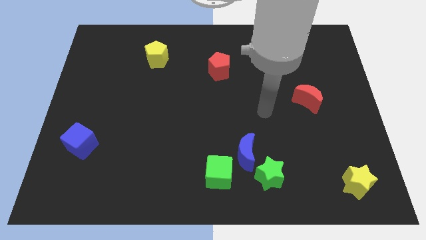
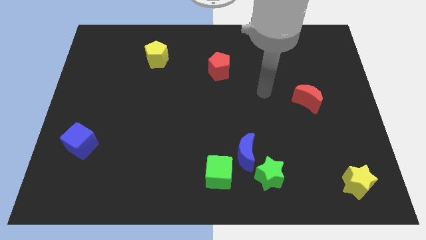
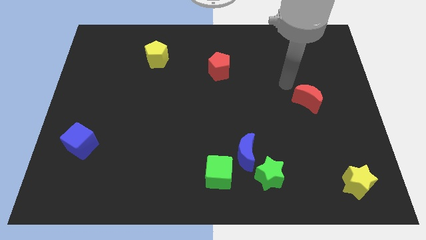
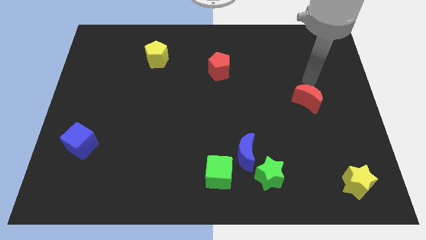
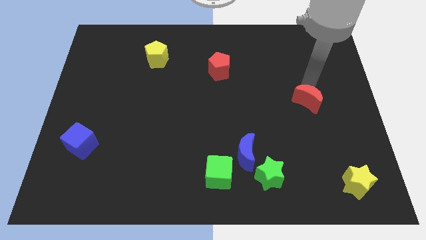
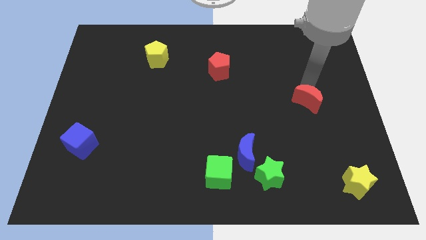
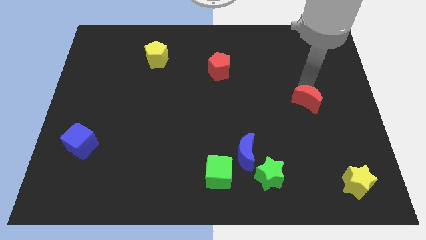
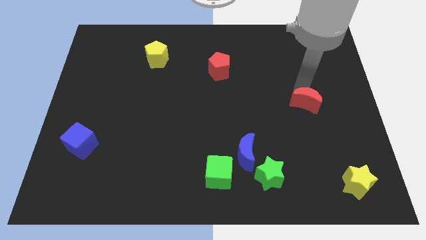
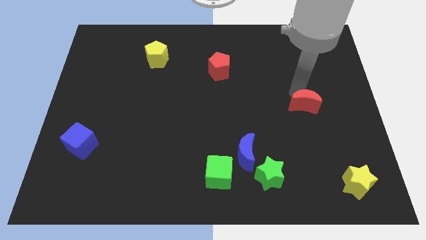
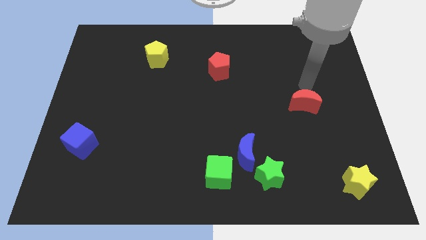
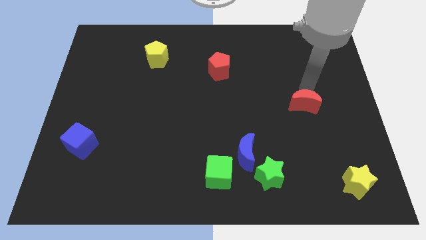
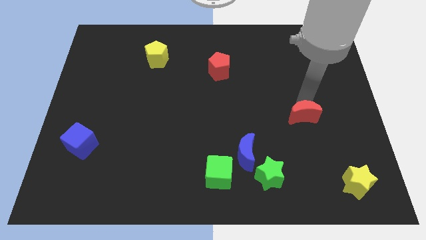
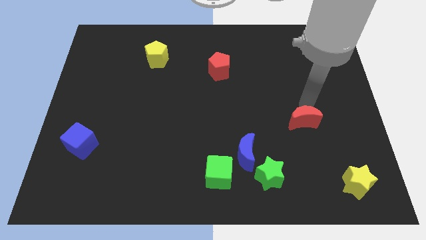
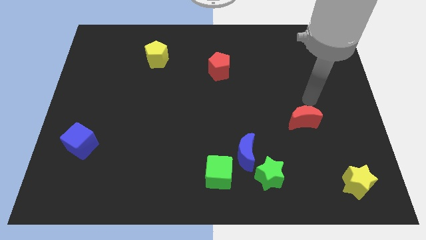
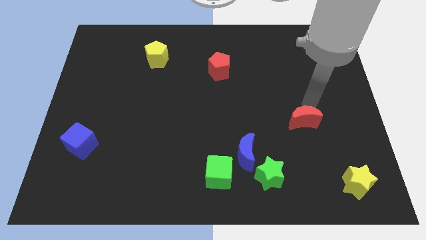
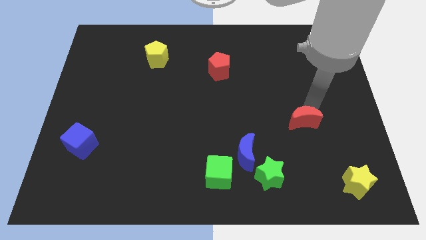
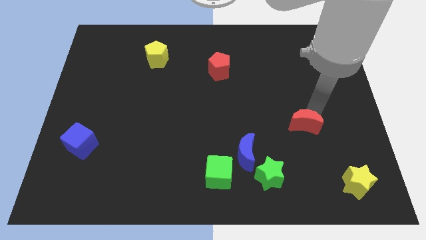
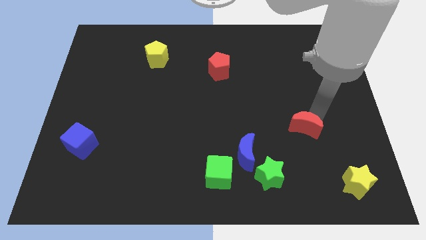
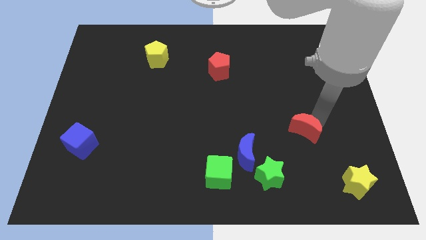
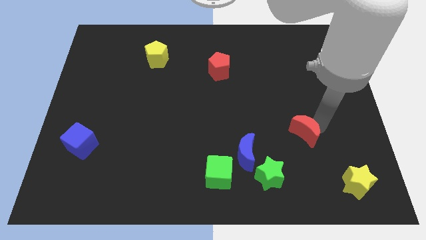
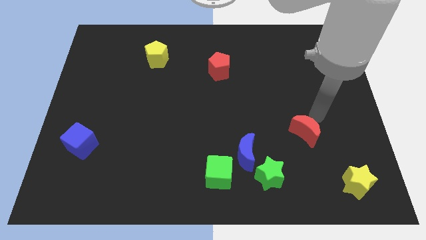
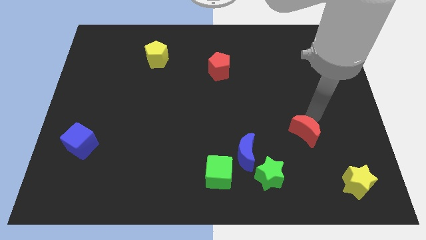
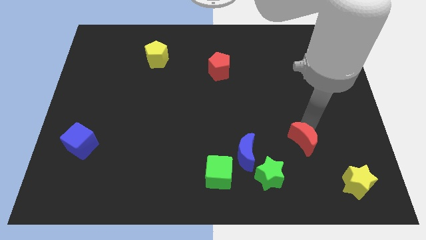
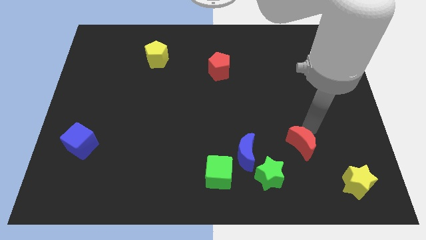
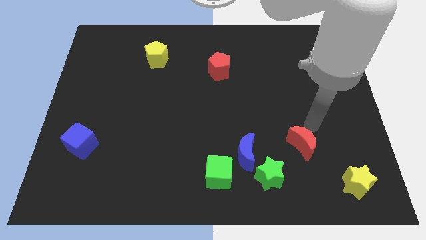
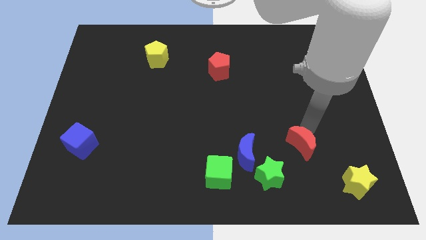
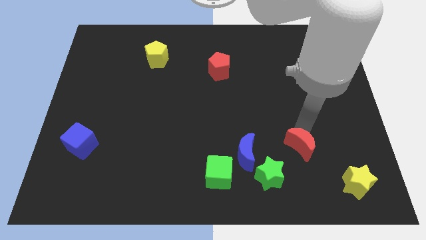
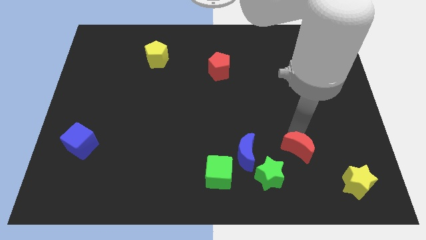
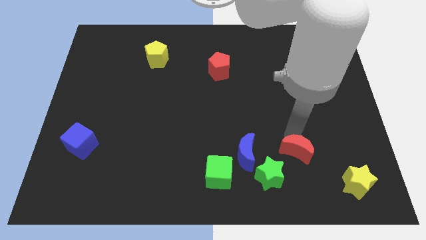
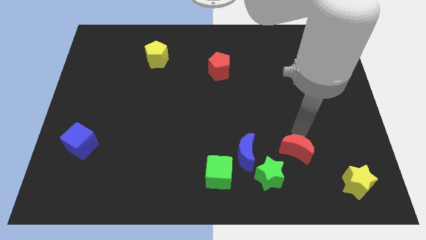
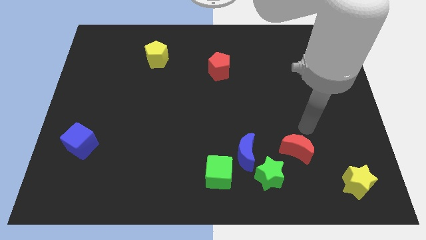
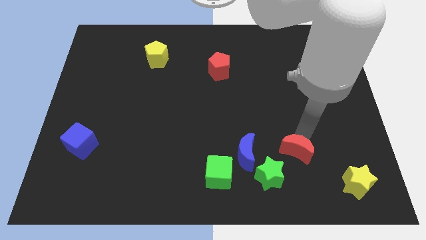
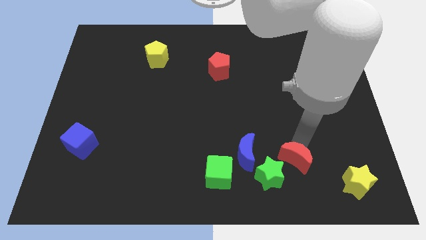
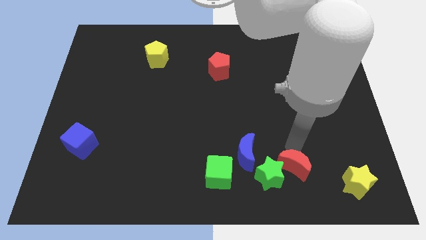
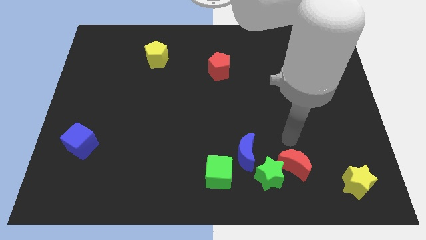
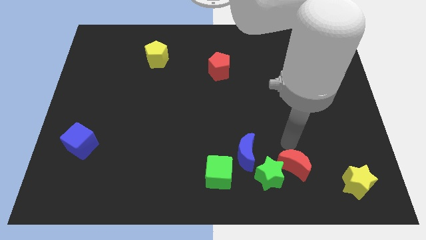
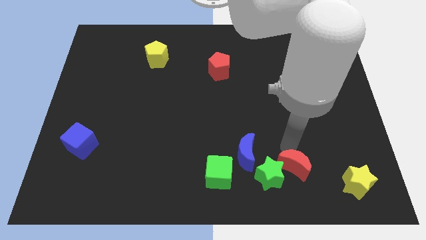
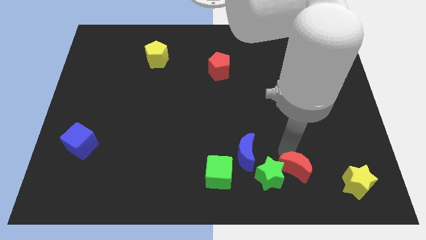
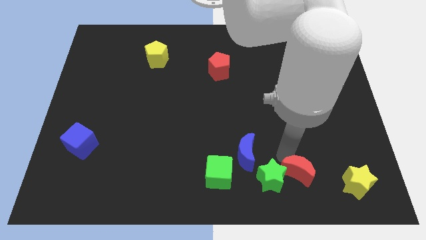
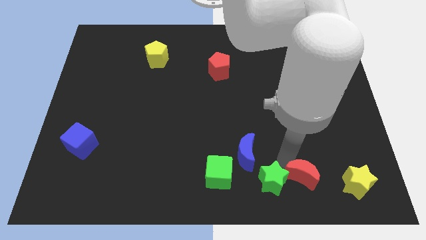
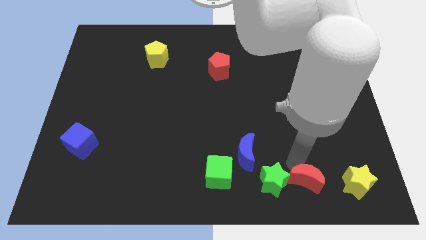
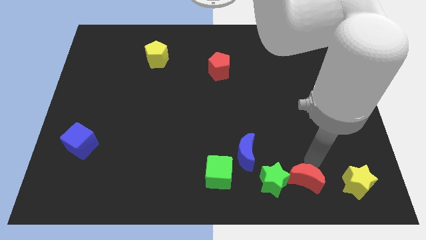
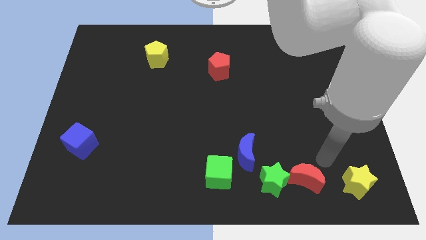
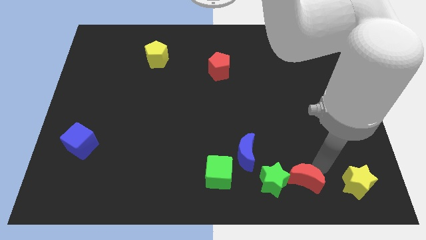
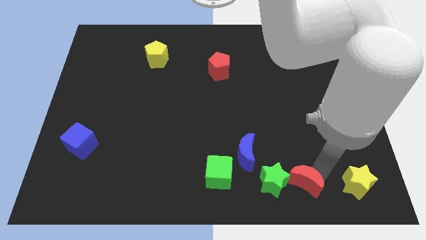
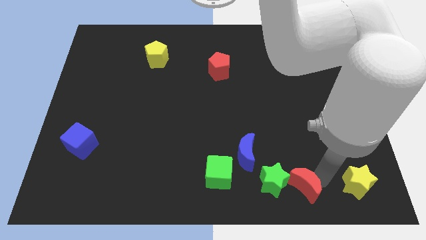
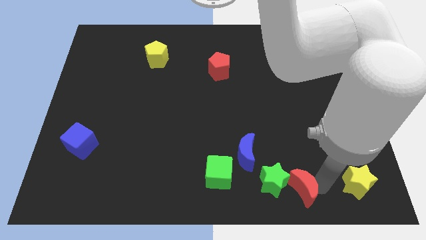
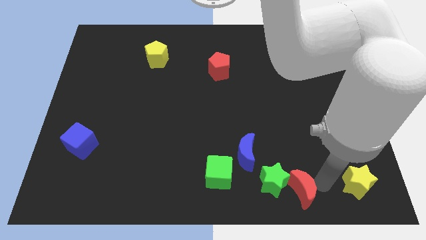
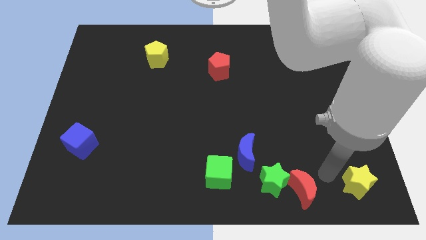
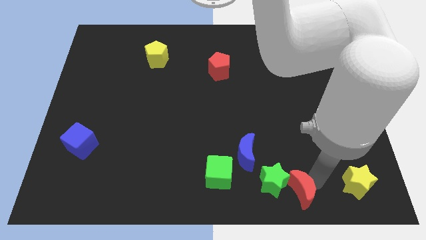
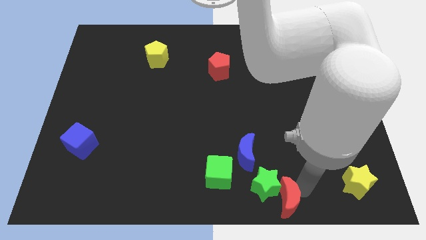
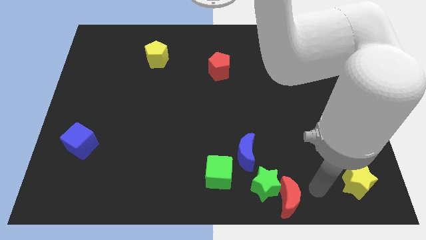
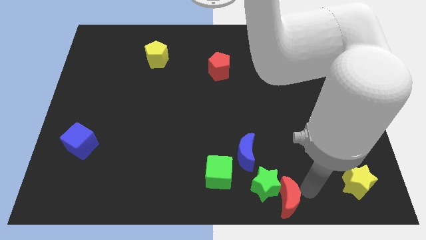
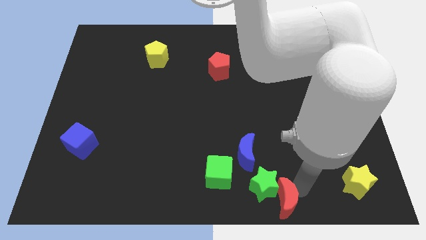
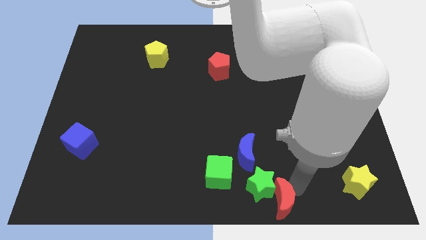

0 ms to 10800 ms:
push the red moon to the bottom
